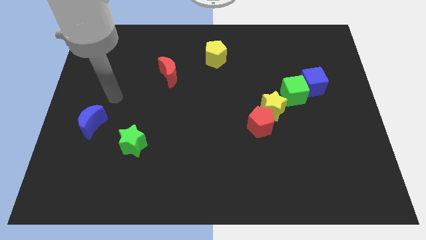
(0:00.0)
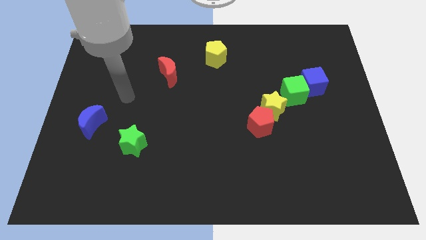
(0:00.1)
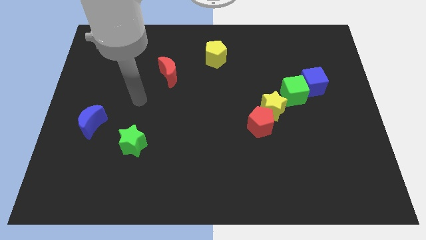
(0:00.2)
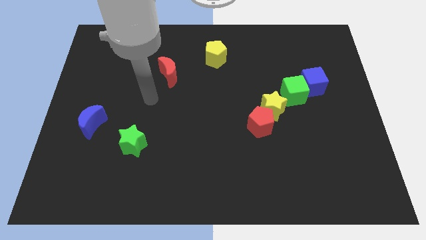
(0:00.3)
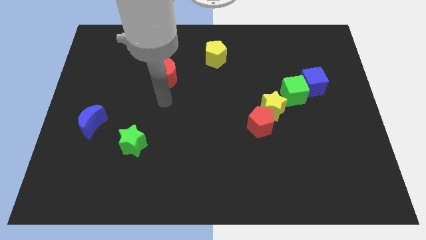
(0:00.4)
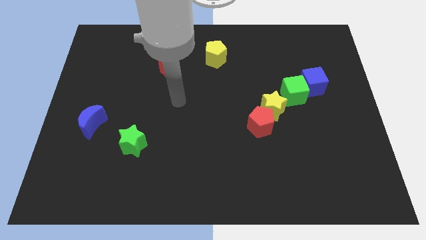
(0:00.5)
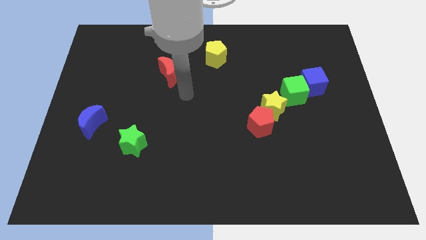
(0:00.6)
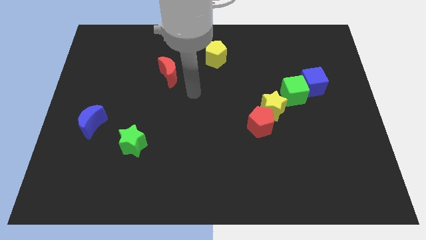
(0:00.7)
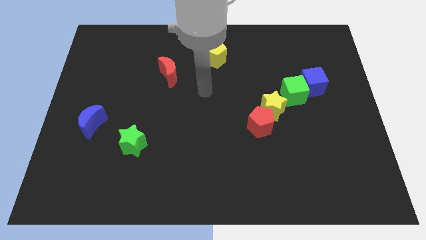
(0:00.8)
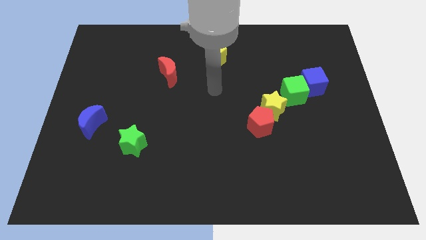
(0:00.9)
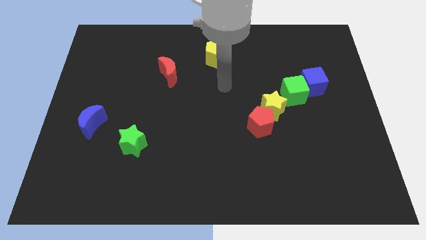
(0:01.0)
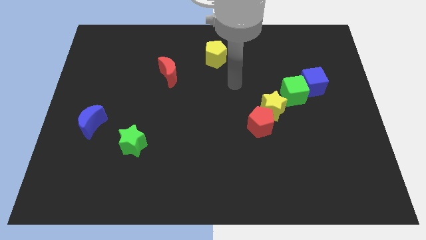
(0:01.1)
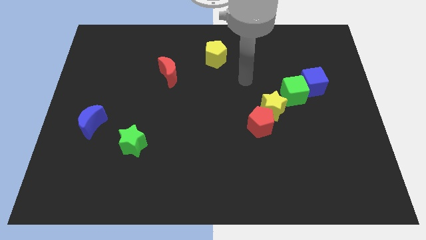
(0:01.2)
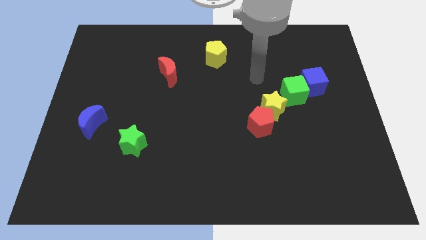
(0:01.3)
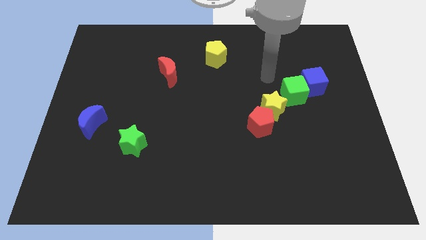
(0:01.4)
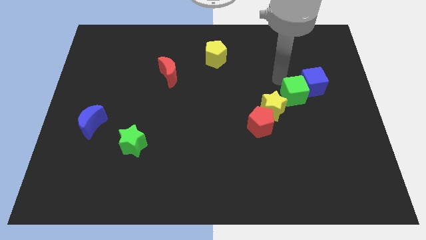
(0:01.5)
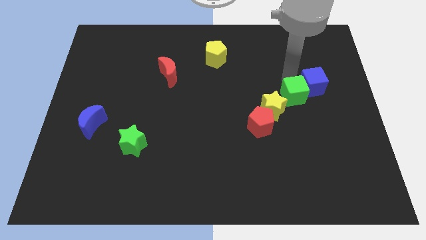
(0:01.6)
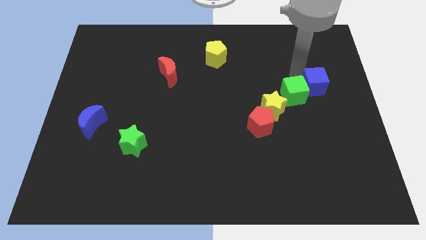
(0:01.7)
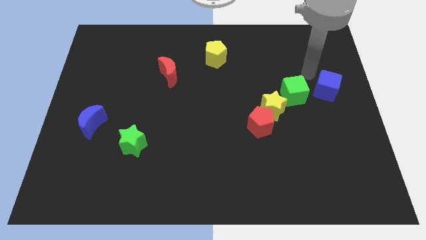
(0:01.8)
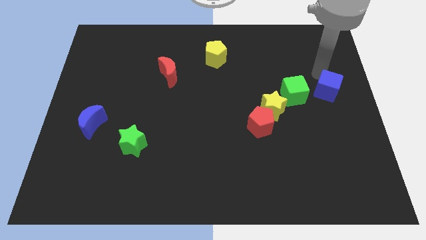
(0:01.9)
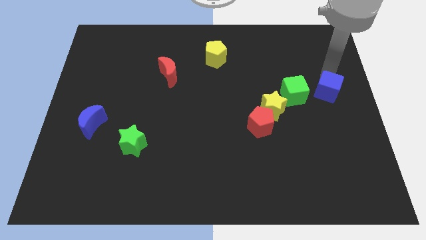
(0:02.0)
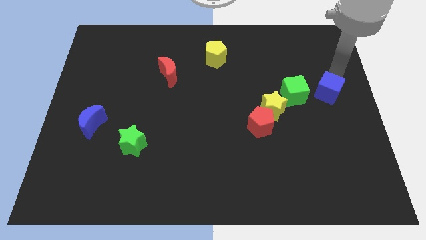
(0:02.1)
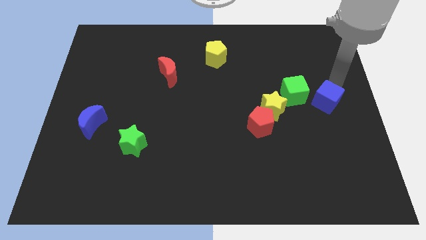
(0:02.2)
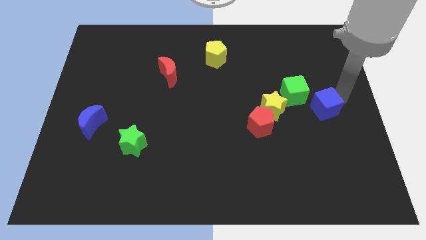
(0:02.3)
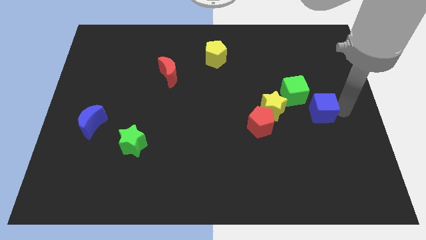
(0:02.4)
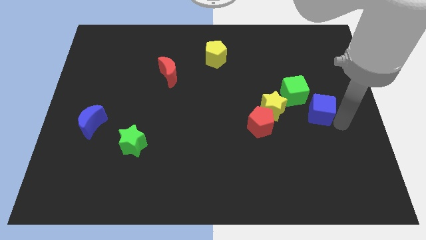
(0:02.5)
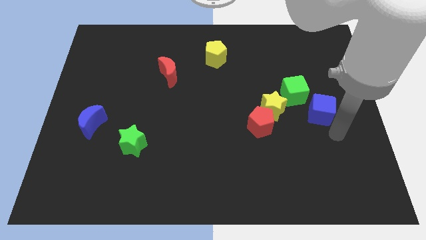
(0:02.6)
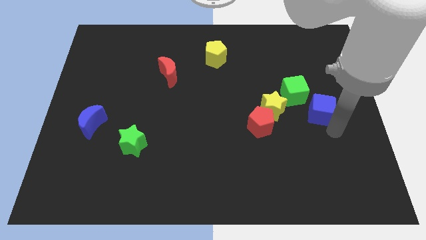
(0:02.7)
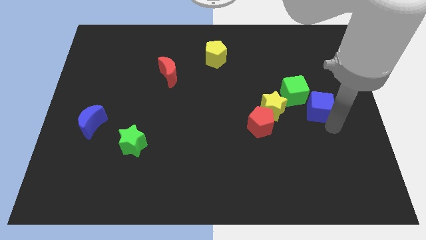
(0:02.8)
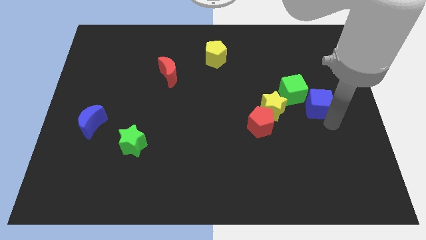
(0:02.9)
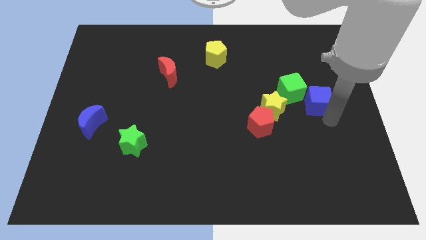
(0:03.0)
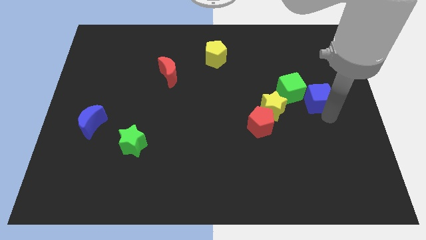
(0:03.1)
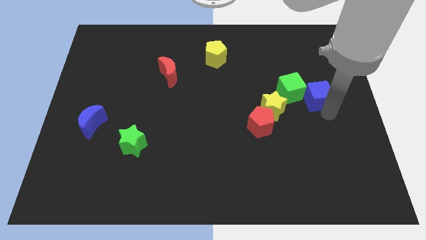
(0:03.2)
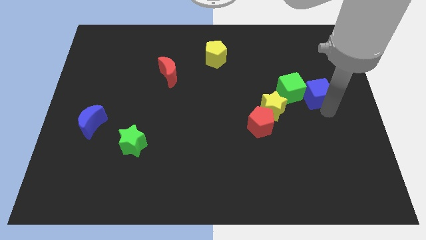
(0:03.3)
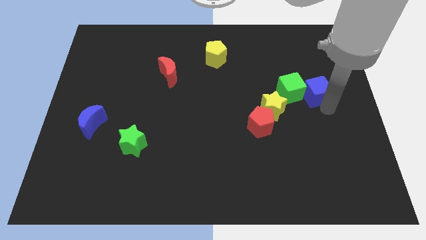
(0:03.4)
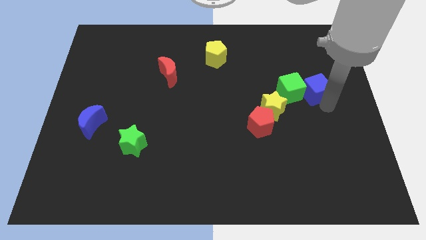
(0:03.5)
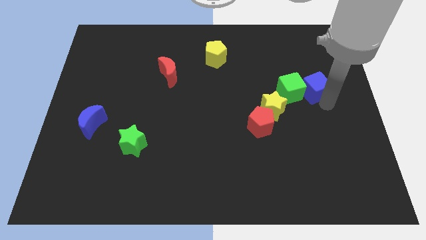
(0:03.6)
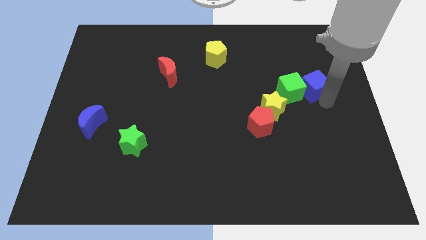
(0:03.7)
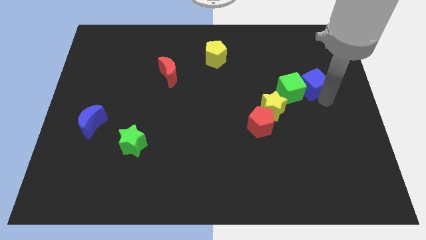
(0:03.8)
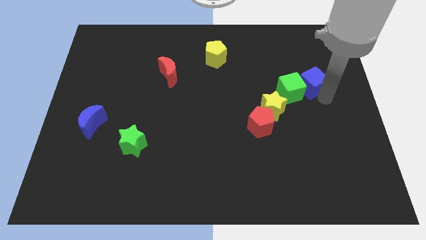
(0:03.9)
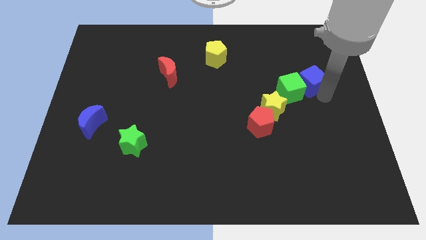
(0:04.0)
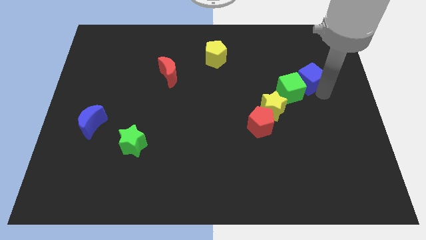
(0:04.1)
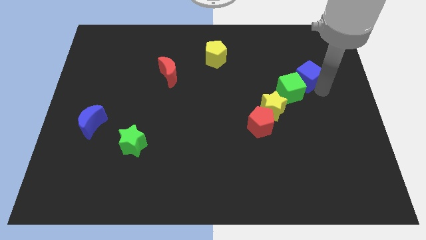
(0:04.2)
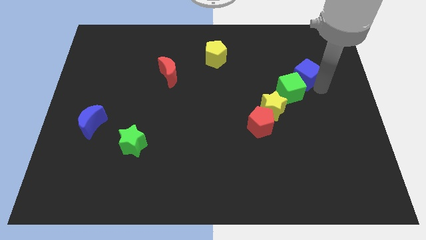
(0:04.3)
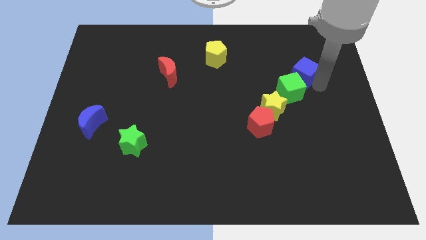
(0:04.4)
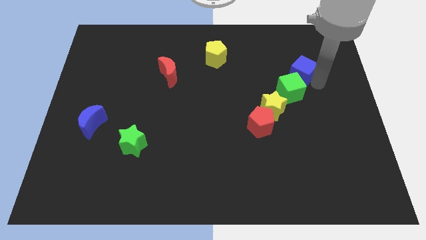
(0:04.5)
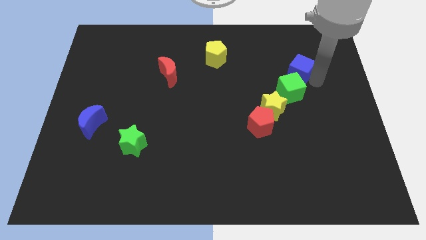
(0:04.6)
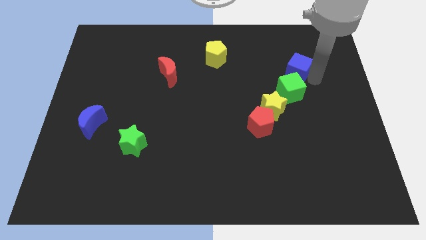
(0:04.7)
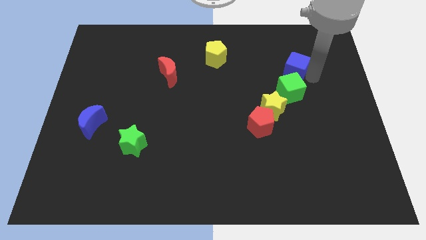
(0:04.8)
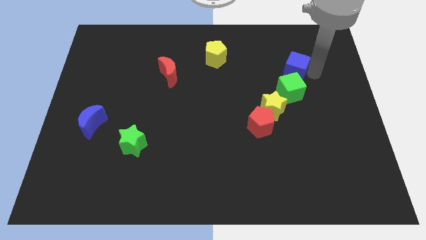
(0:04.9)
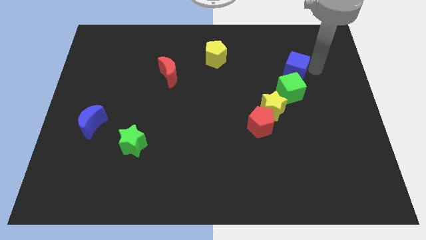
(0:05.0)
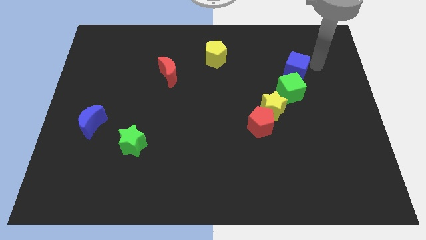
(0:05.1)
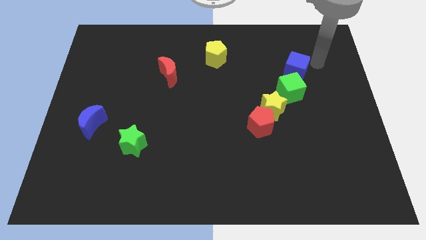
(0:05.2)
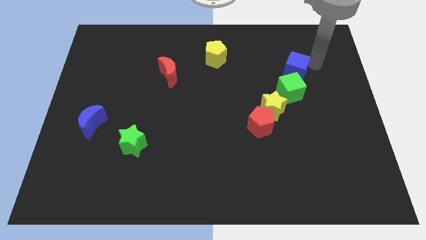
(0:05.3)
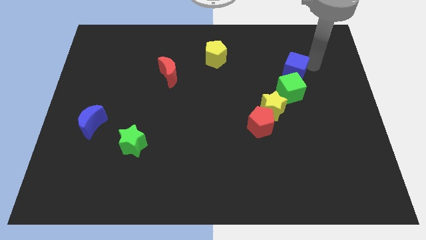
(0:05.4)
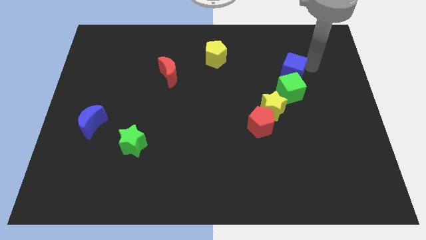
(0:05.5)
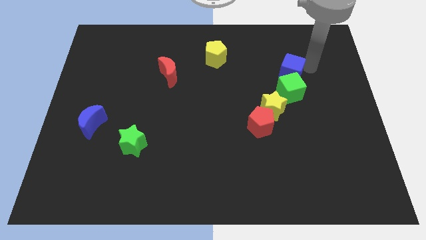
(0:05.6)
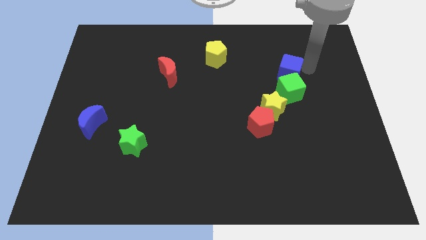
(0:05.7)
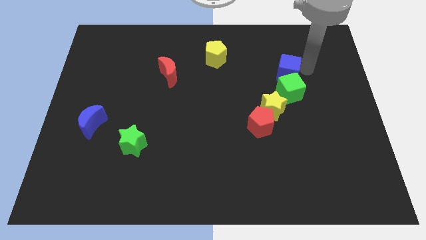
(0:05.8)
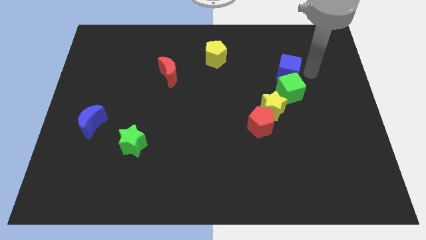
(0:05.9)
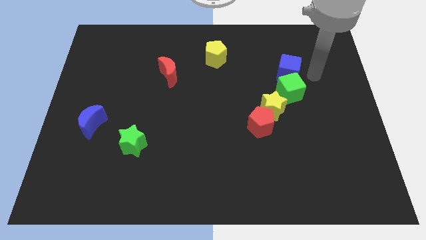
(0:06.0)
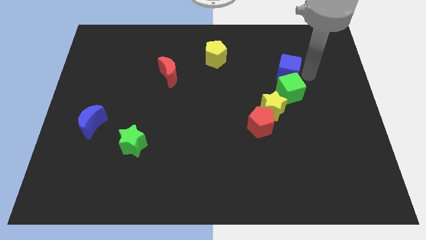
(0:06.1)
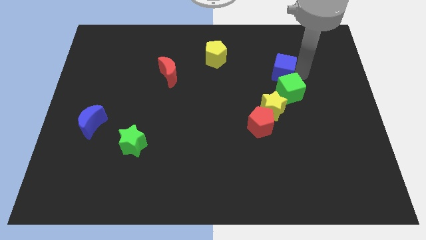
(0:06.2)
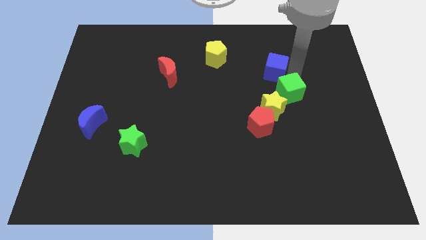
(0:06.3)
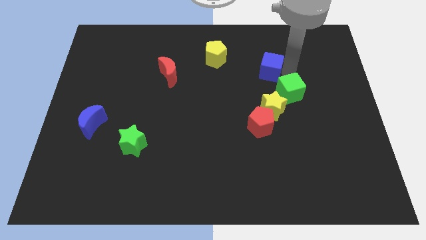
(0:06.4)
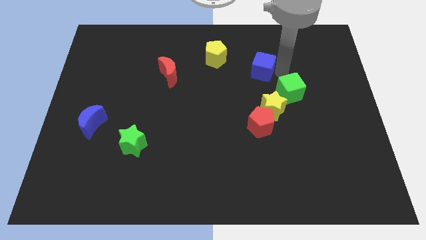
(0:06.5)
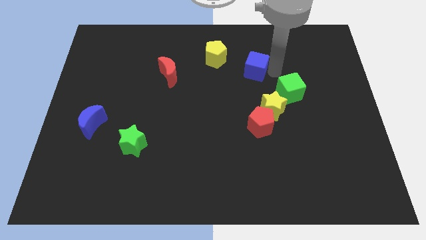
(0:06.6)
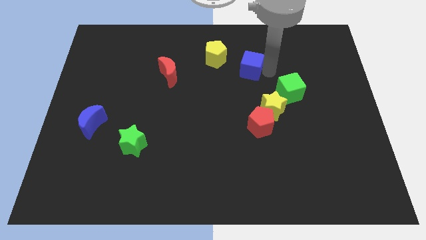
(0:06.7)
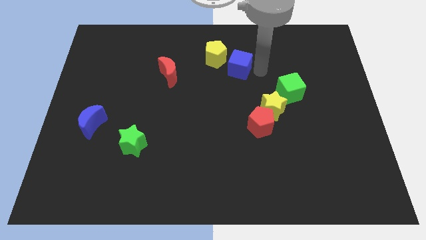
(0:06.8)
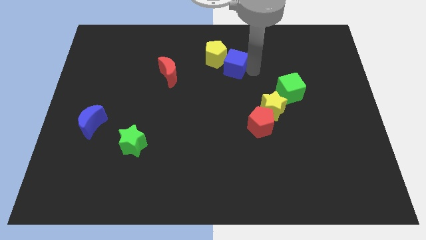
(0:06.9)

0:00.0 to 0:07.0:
push the blue cube close to the yellow pentagon

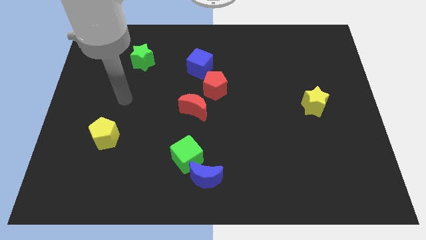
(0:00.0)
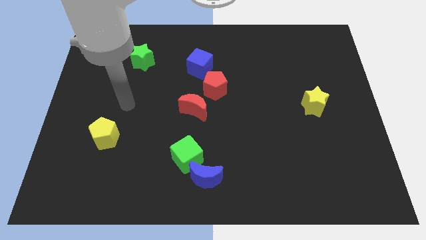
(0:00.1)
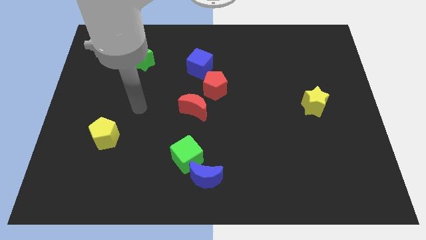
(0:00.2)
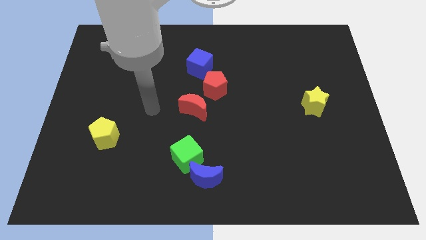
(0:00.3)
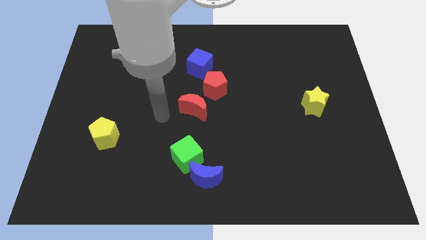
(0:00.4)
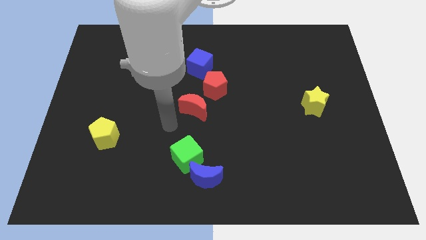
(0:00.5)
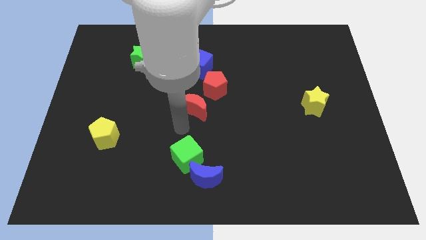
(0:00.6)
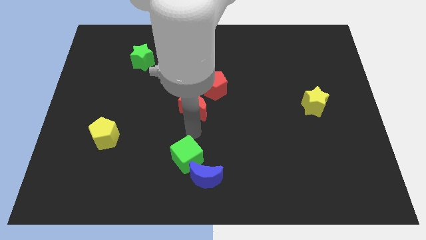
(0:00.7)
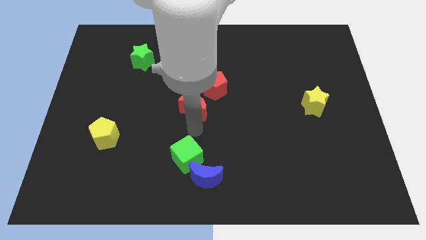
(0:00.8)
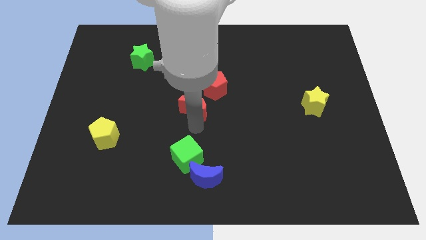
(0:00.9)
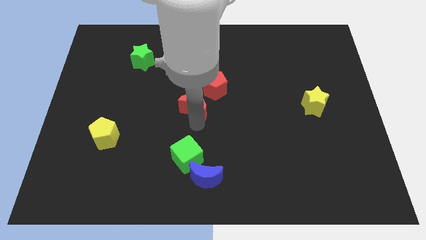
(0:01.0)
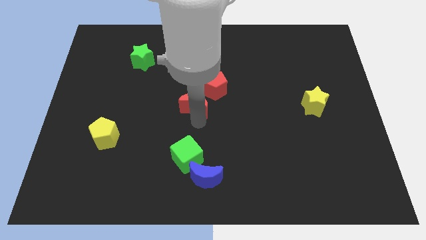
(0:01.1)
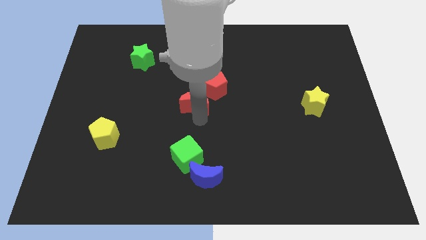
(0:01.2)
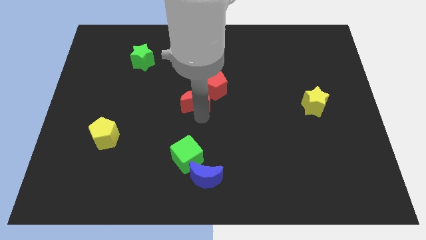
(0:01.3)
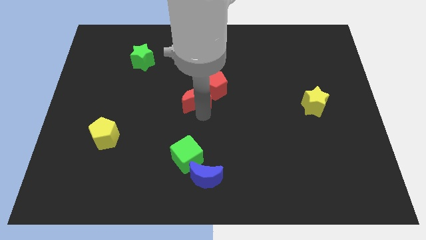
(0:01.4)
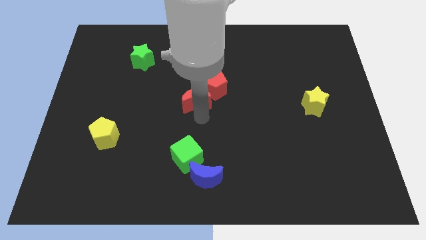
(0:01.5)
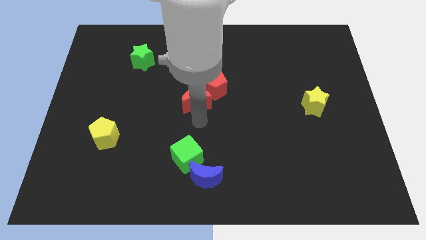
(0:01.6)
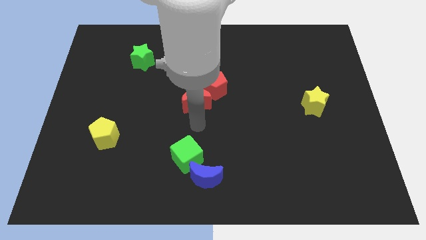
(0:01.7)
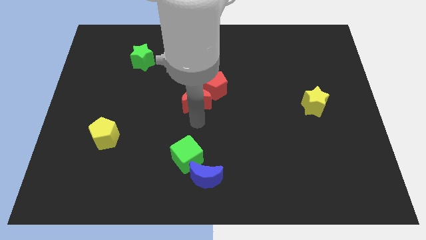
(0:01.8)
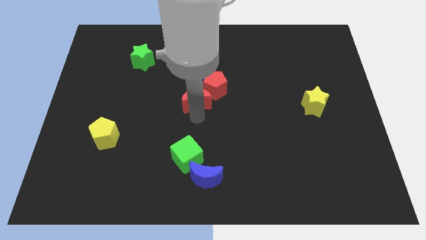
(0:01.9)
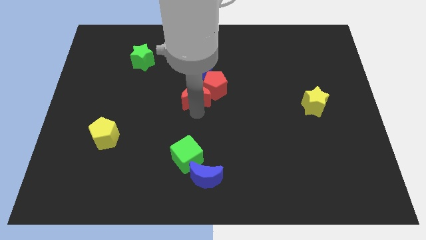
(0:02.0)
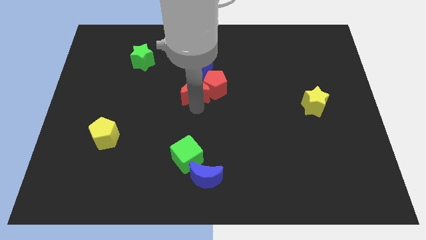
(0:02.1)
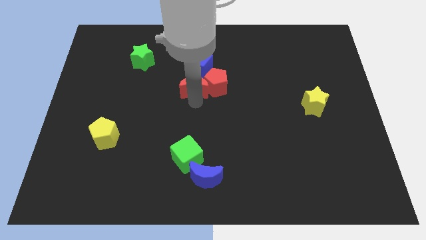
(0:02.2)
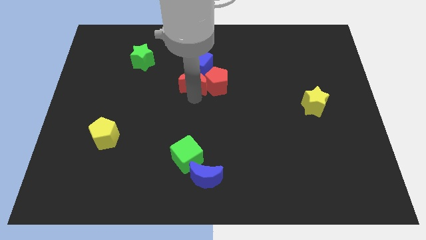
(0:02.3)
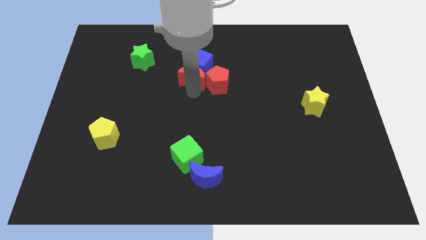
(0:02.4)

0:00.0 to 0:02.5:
slide the red moon towards the blue cube
